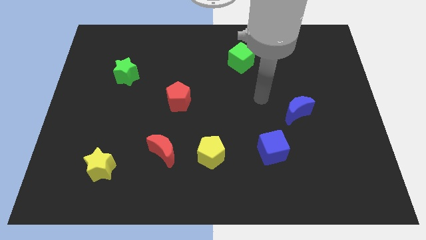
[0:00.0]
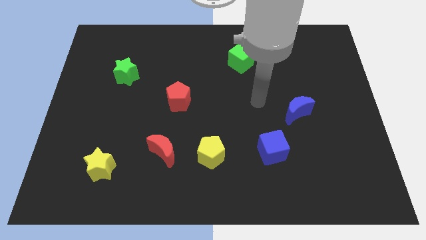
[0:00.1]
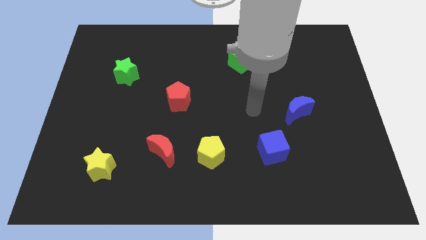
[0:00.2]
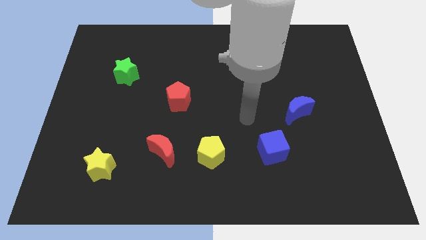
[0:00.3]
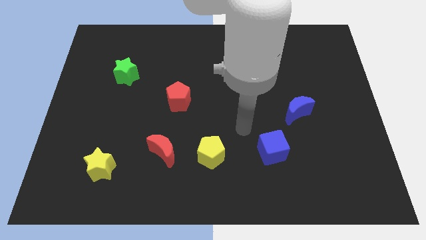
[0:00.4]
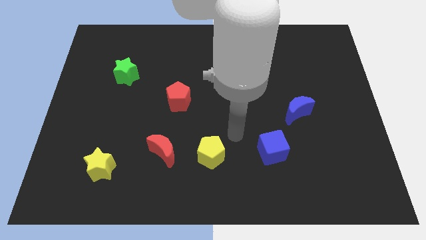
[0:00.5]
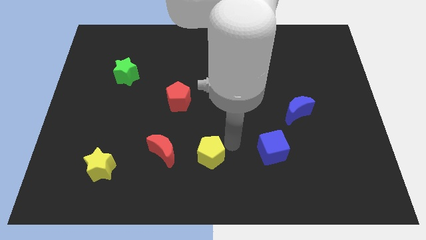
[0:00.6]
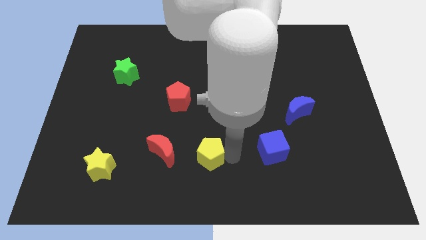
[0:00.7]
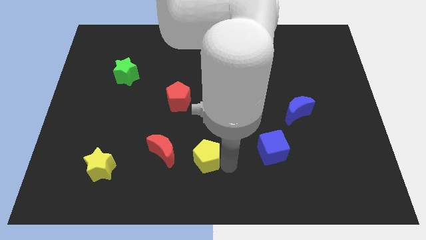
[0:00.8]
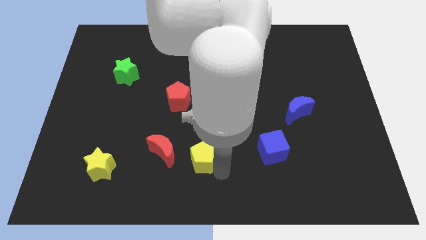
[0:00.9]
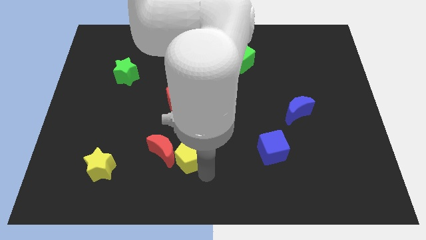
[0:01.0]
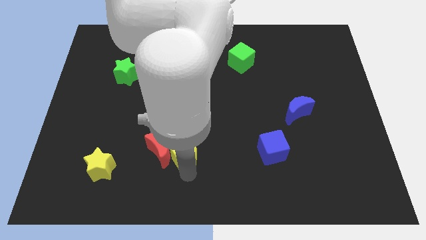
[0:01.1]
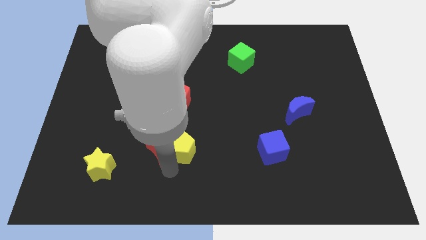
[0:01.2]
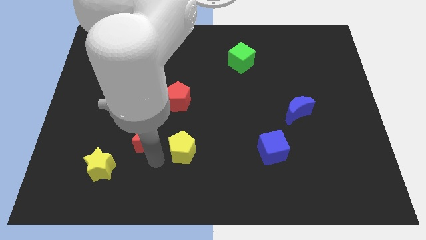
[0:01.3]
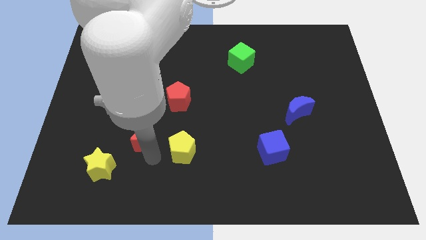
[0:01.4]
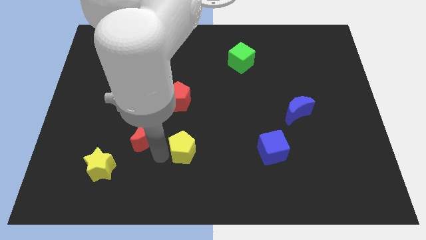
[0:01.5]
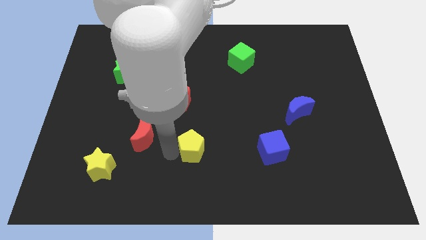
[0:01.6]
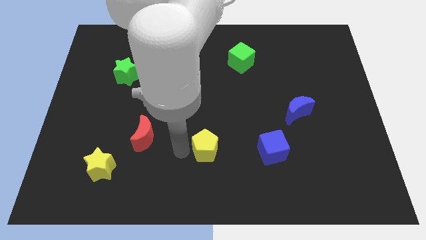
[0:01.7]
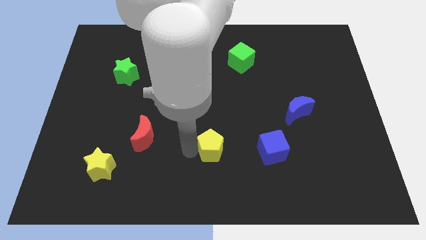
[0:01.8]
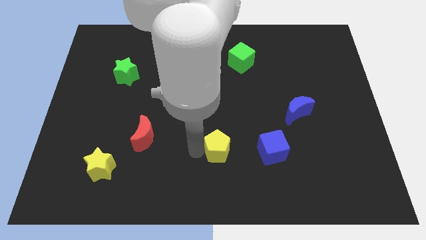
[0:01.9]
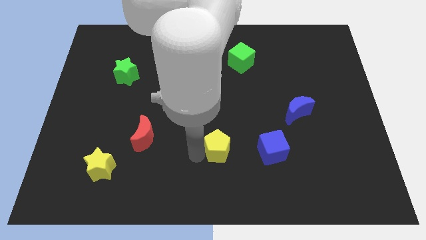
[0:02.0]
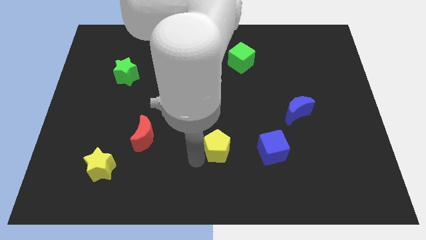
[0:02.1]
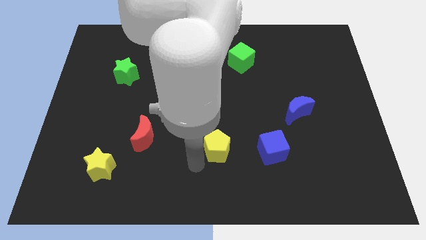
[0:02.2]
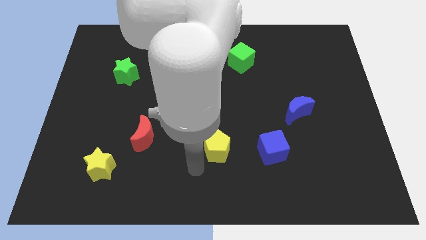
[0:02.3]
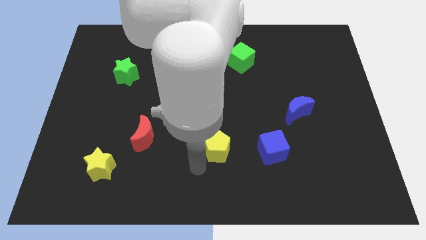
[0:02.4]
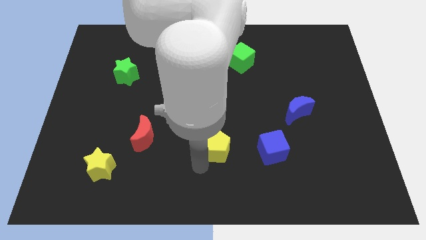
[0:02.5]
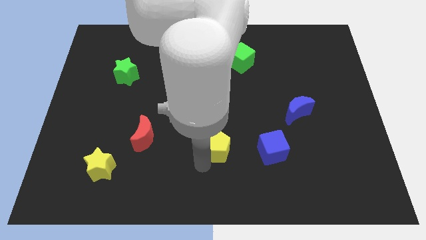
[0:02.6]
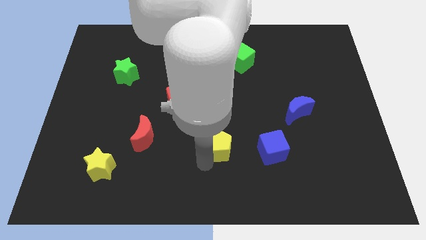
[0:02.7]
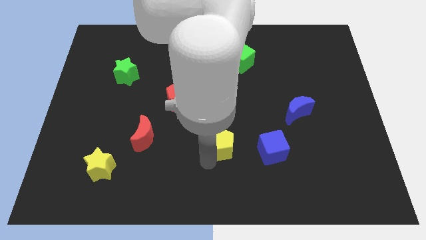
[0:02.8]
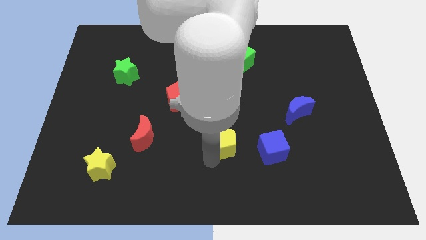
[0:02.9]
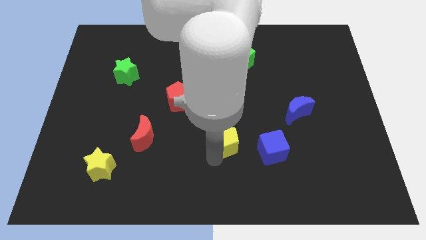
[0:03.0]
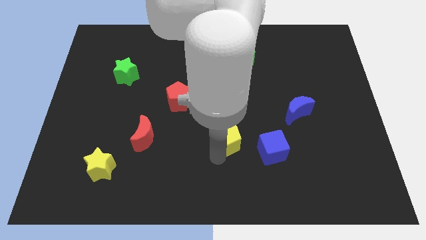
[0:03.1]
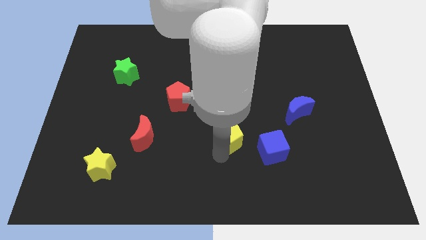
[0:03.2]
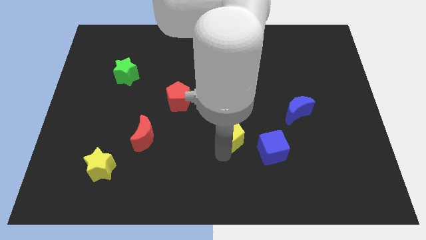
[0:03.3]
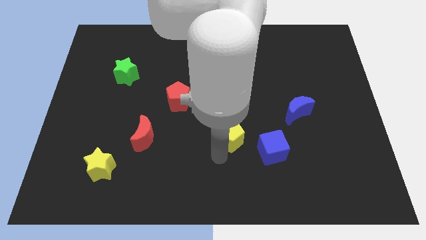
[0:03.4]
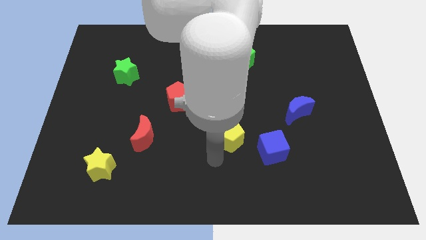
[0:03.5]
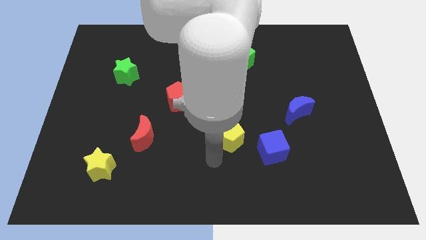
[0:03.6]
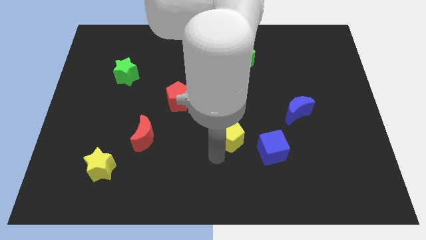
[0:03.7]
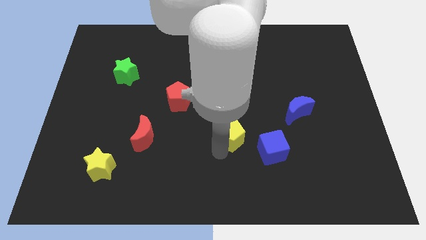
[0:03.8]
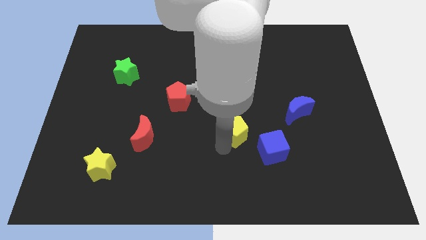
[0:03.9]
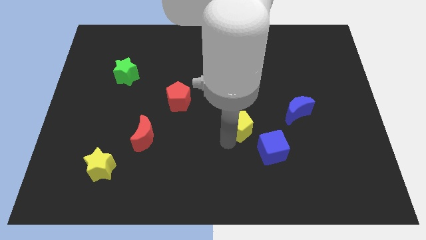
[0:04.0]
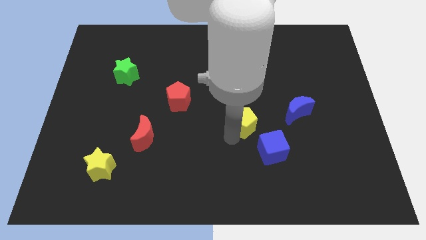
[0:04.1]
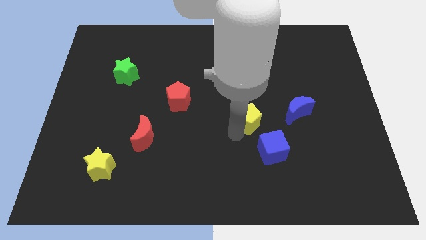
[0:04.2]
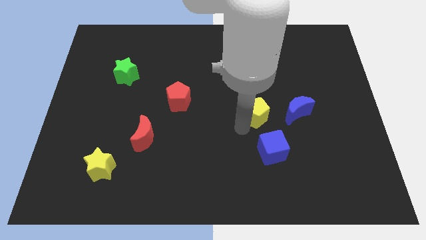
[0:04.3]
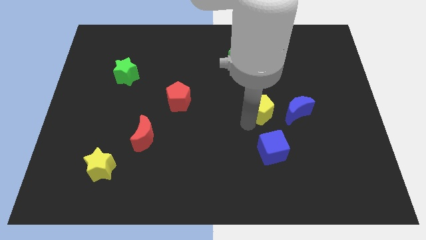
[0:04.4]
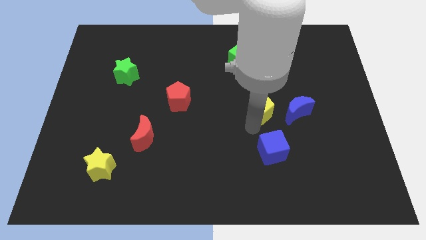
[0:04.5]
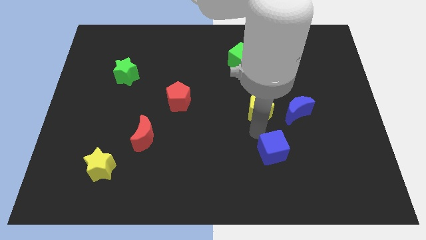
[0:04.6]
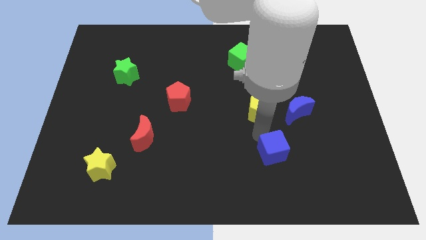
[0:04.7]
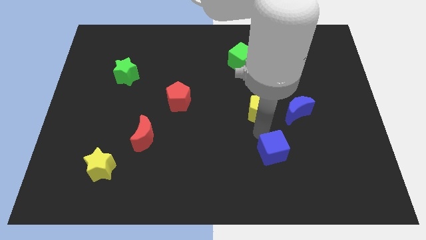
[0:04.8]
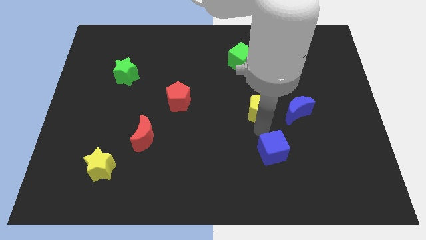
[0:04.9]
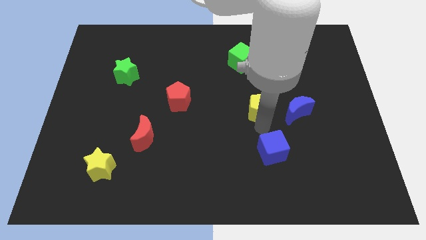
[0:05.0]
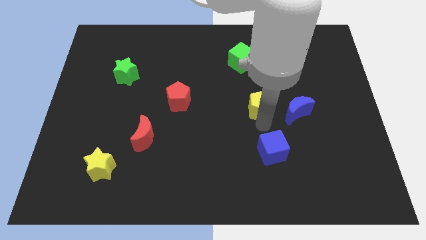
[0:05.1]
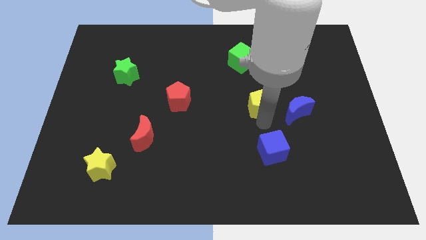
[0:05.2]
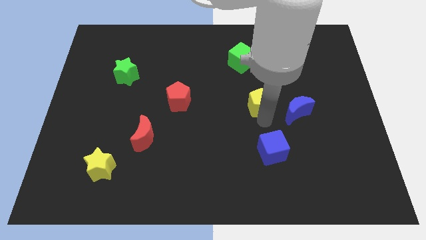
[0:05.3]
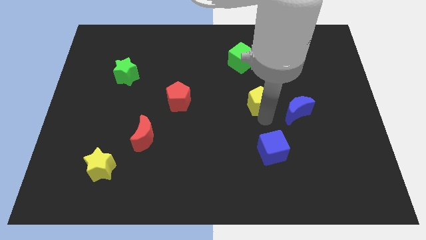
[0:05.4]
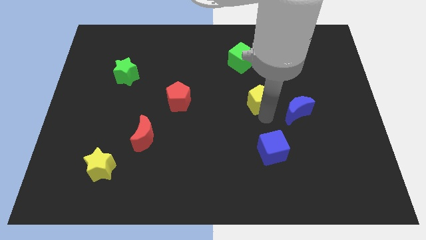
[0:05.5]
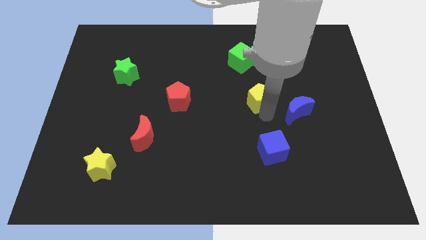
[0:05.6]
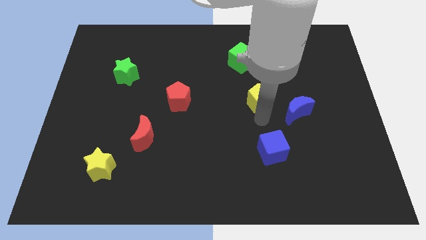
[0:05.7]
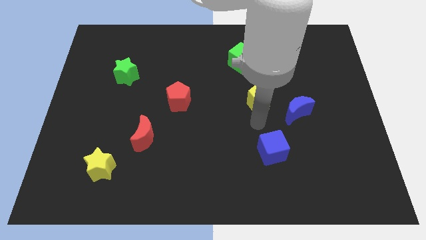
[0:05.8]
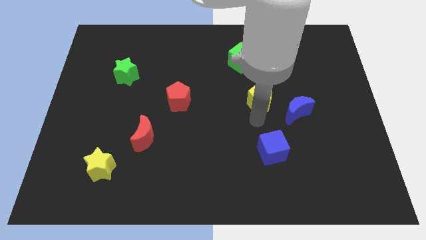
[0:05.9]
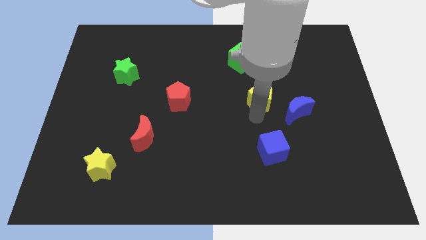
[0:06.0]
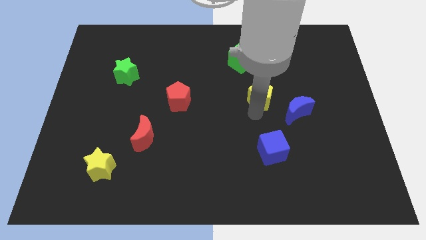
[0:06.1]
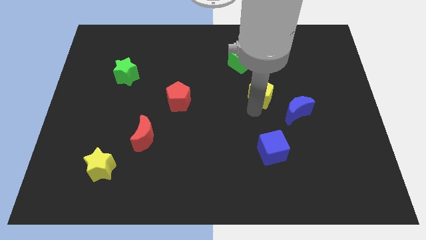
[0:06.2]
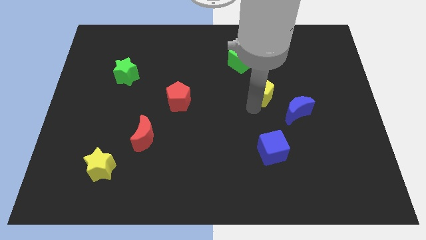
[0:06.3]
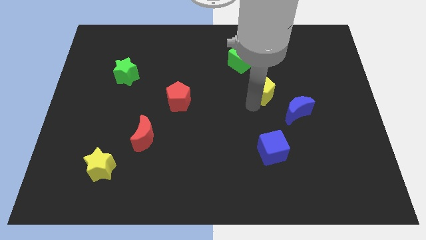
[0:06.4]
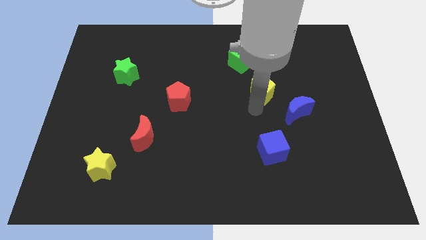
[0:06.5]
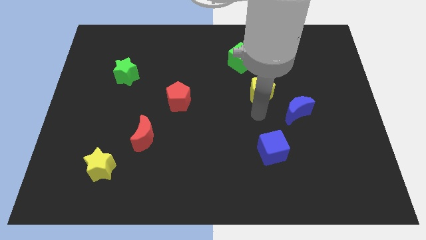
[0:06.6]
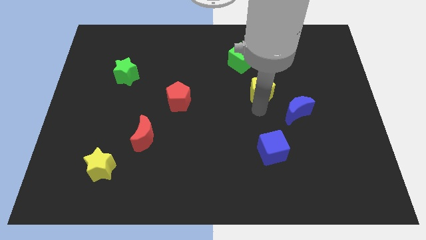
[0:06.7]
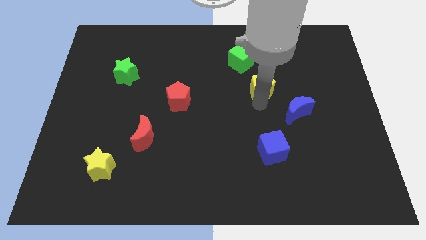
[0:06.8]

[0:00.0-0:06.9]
slide the yellow pentagon to the bottom right of the green cube
